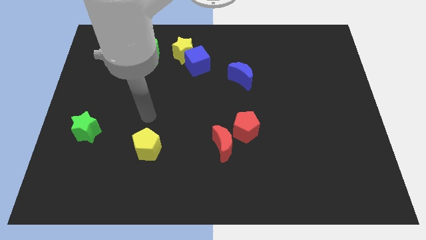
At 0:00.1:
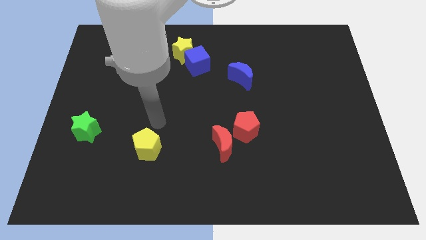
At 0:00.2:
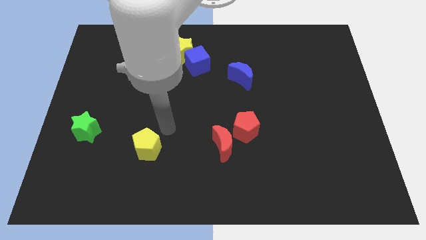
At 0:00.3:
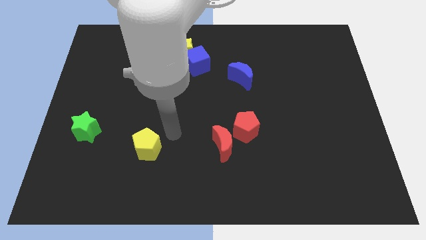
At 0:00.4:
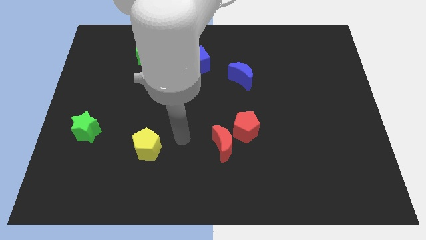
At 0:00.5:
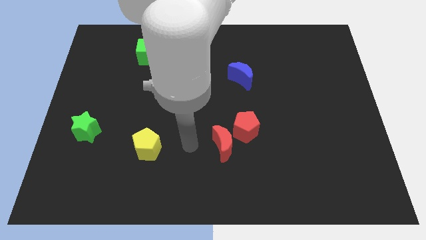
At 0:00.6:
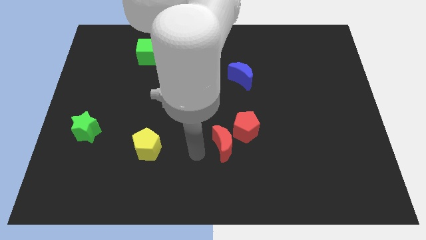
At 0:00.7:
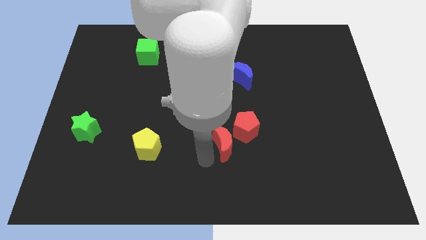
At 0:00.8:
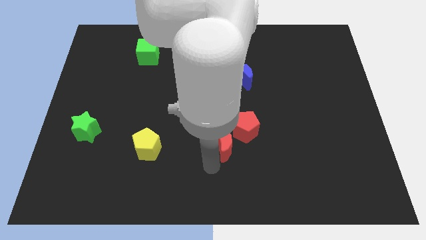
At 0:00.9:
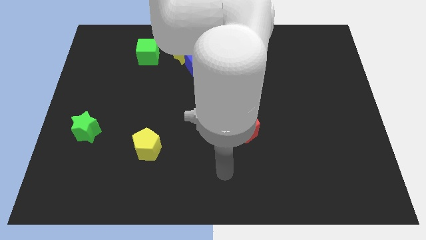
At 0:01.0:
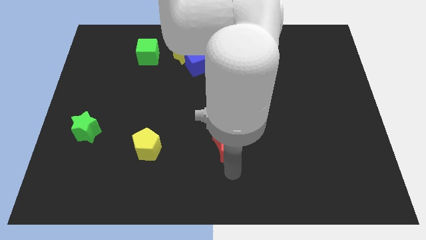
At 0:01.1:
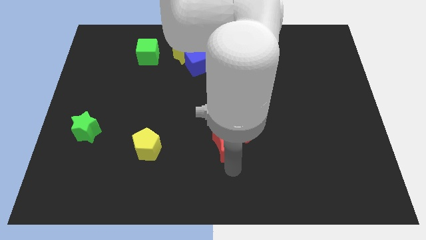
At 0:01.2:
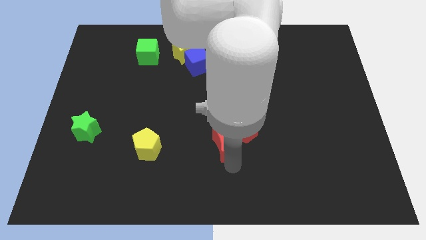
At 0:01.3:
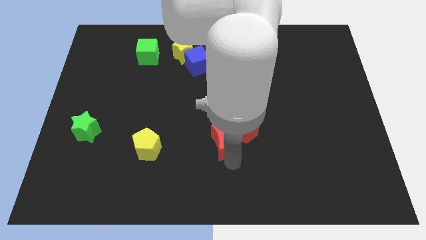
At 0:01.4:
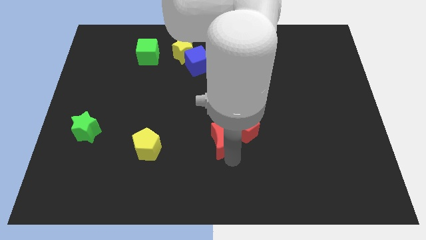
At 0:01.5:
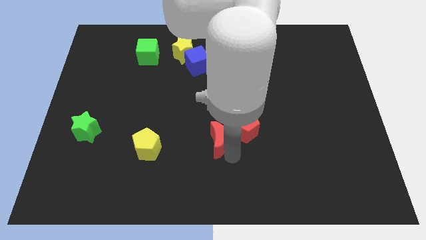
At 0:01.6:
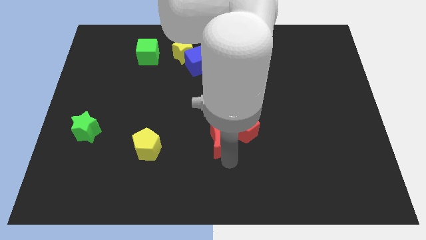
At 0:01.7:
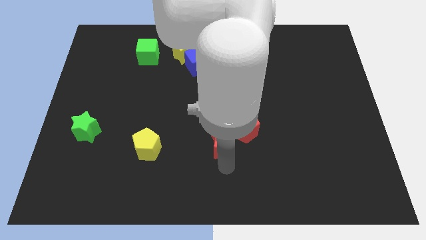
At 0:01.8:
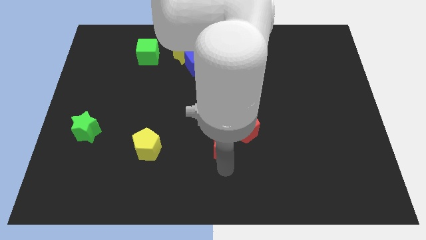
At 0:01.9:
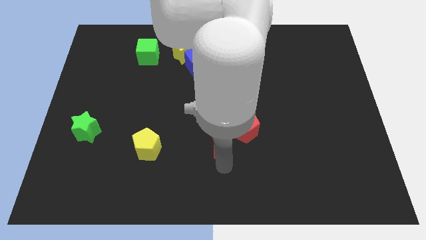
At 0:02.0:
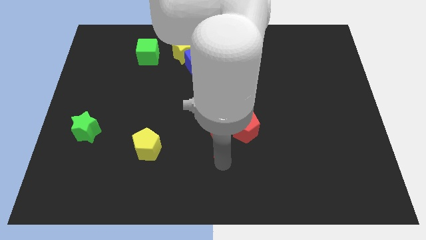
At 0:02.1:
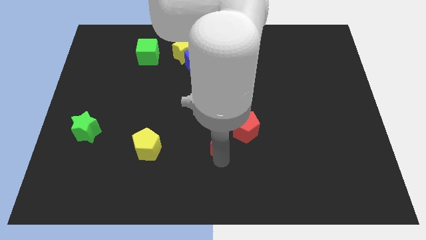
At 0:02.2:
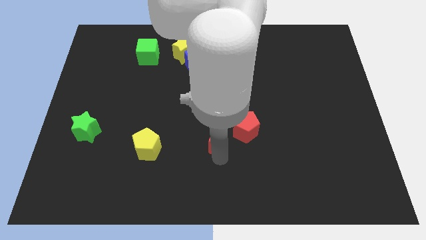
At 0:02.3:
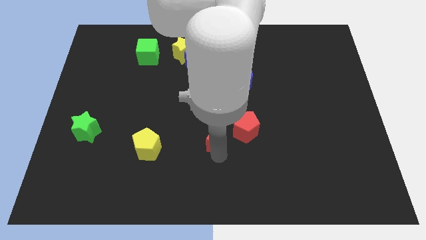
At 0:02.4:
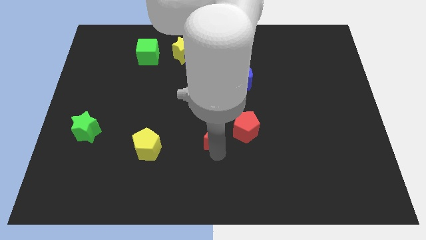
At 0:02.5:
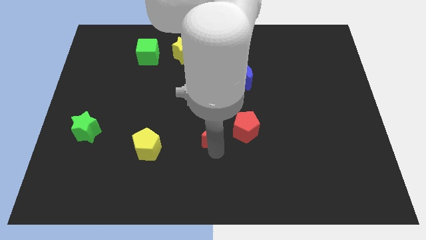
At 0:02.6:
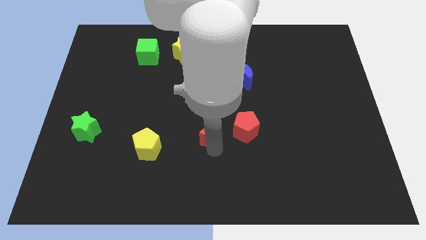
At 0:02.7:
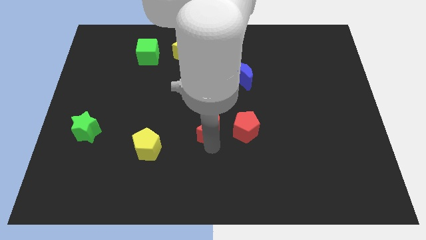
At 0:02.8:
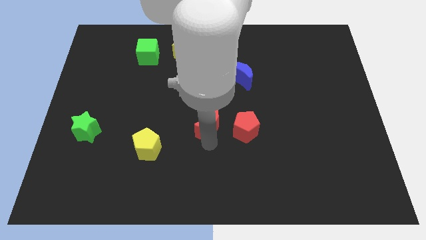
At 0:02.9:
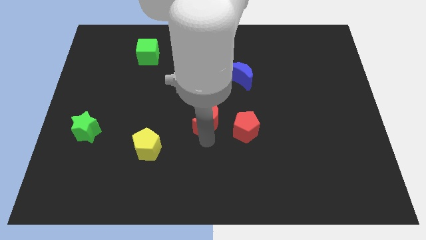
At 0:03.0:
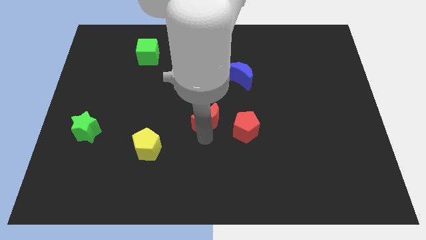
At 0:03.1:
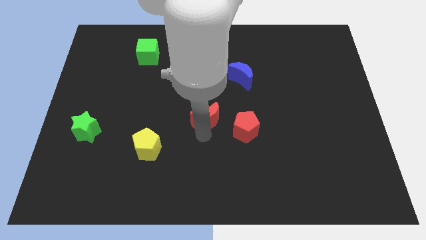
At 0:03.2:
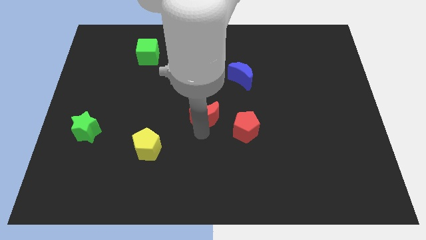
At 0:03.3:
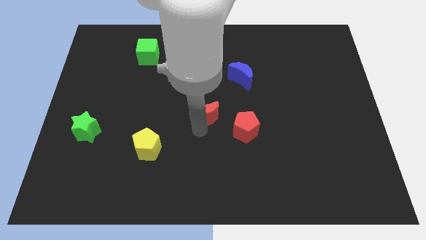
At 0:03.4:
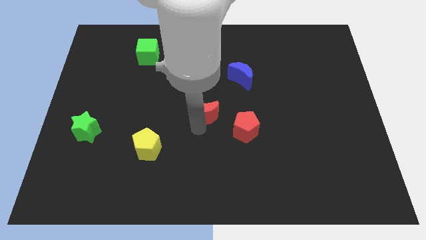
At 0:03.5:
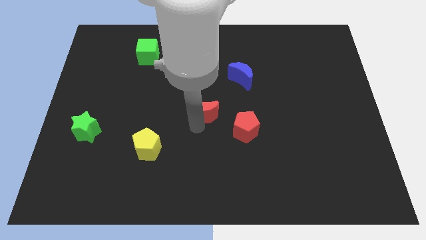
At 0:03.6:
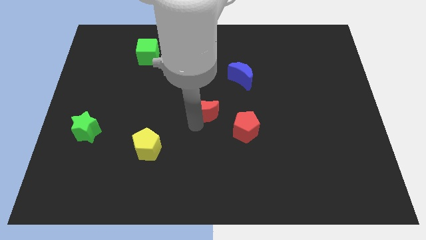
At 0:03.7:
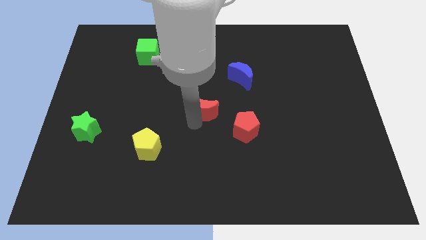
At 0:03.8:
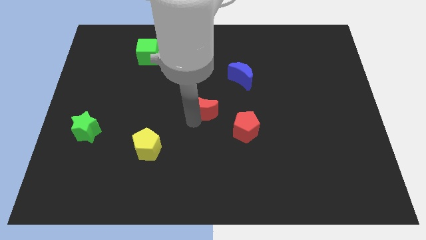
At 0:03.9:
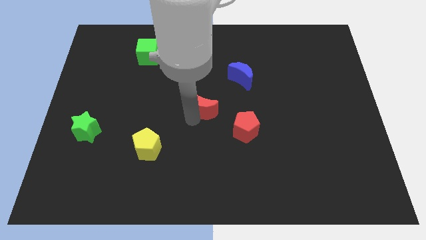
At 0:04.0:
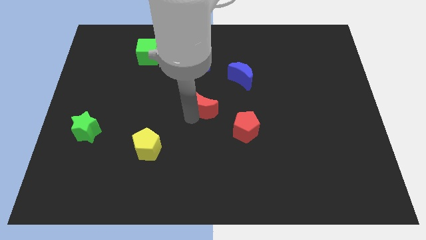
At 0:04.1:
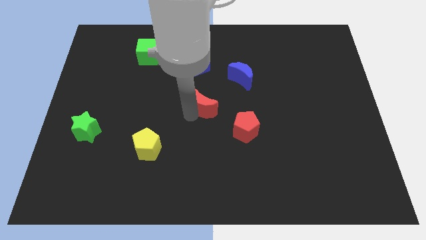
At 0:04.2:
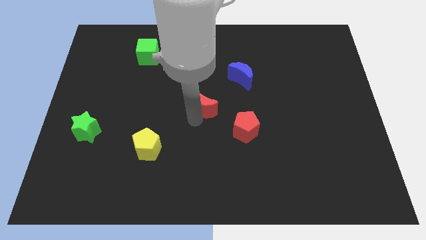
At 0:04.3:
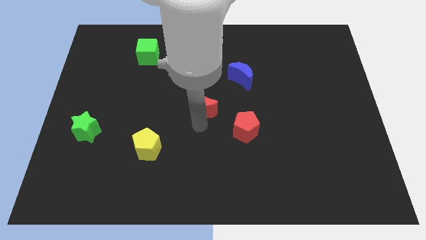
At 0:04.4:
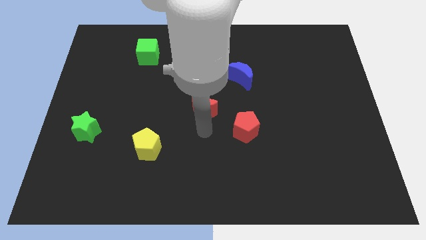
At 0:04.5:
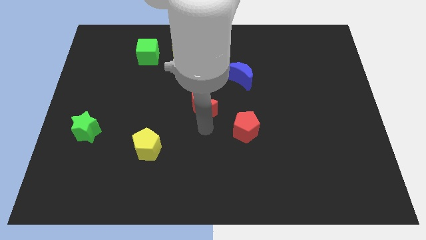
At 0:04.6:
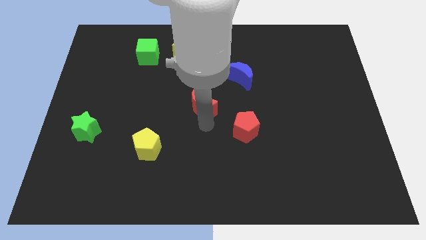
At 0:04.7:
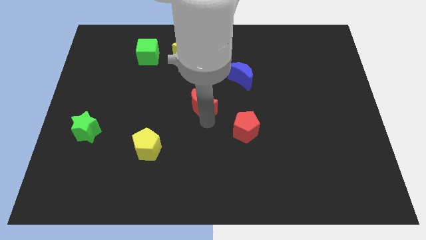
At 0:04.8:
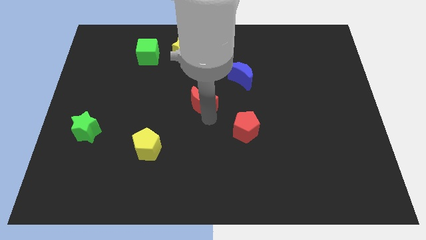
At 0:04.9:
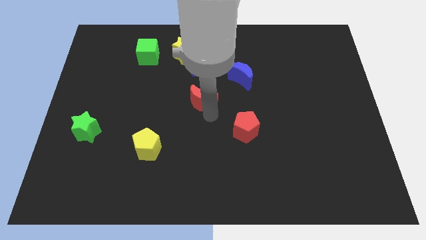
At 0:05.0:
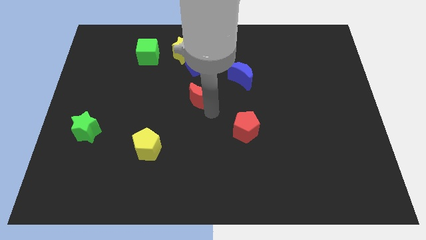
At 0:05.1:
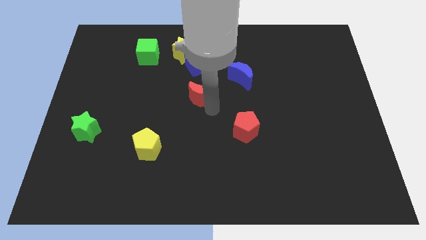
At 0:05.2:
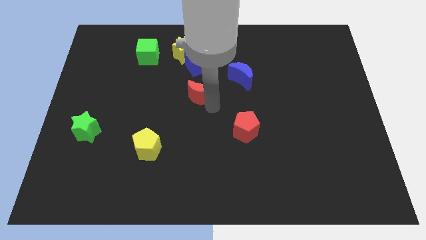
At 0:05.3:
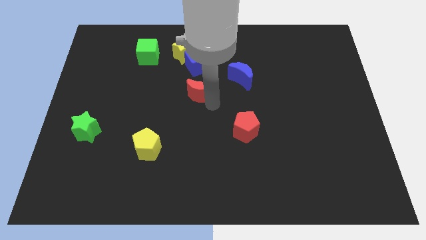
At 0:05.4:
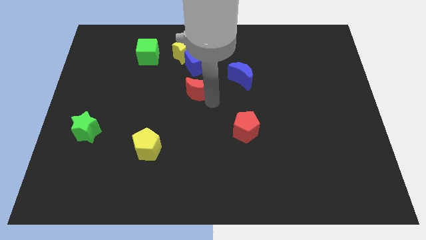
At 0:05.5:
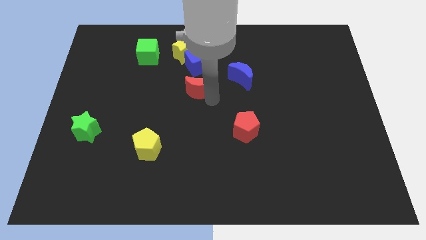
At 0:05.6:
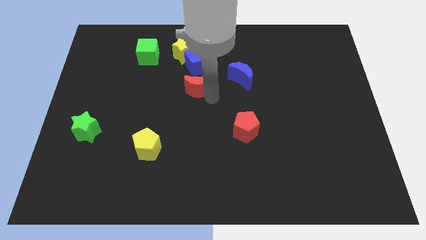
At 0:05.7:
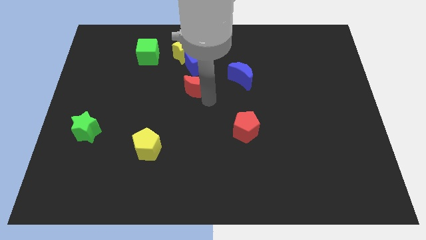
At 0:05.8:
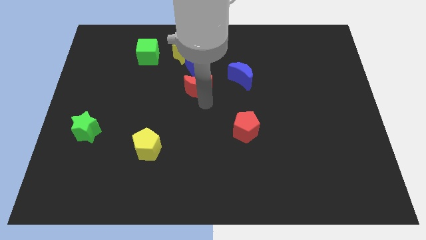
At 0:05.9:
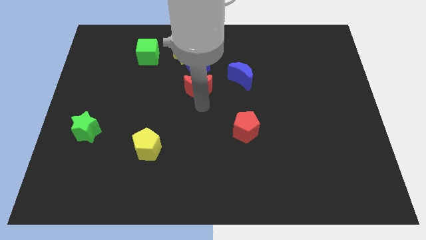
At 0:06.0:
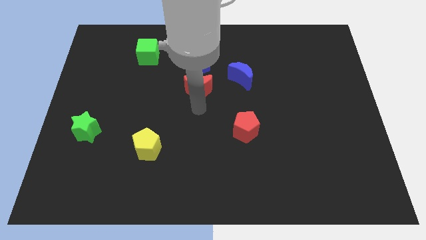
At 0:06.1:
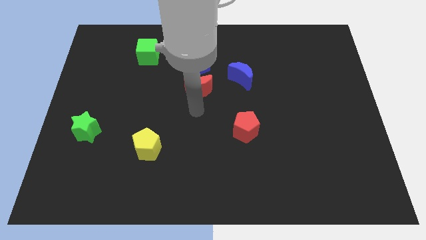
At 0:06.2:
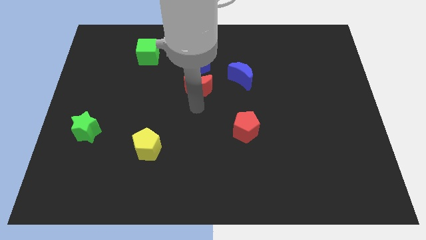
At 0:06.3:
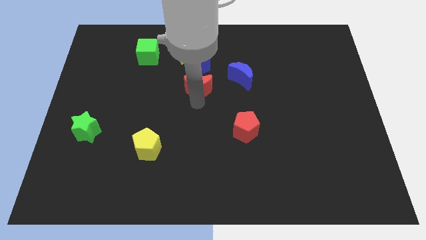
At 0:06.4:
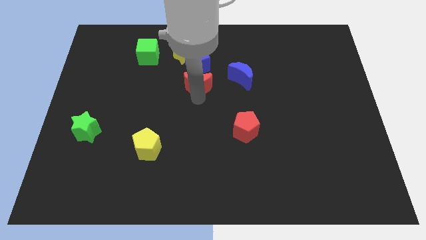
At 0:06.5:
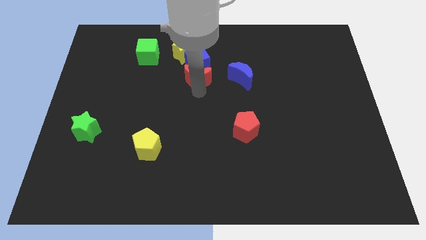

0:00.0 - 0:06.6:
put the red moon towards the blue cube

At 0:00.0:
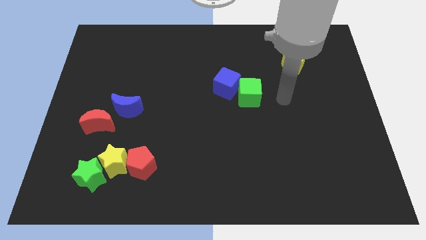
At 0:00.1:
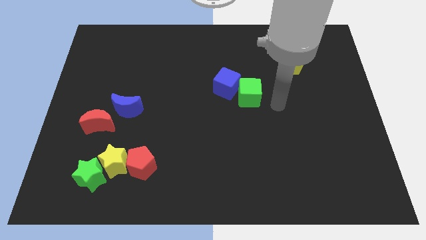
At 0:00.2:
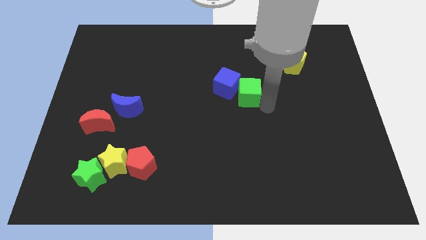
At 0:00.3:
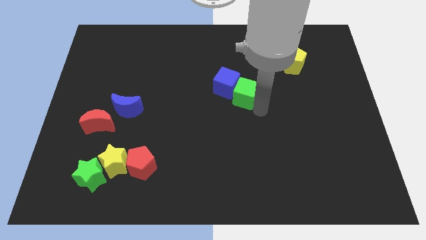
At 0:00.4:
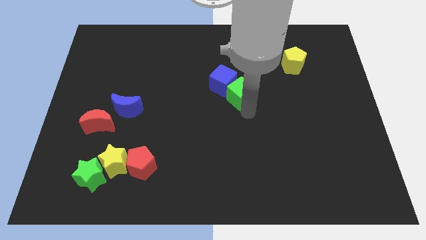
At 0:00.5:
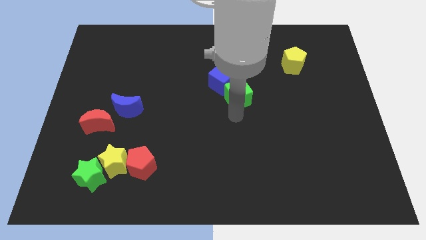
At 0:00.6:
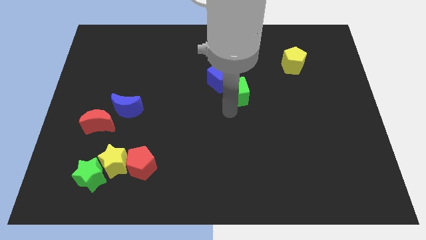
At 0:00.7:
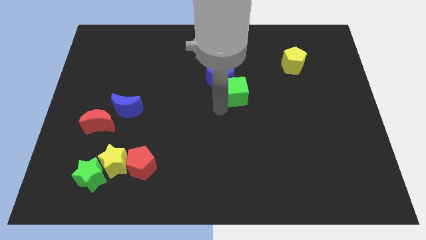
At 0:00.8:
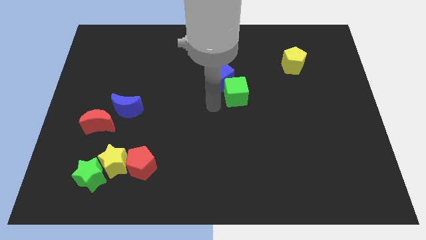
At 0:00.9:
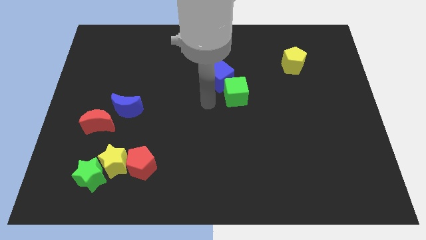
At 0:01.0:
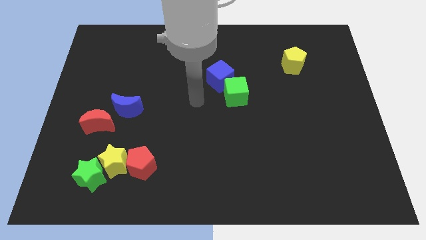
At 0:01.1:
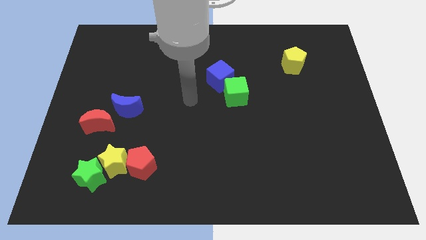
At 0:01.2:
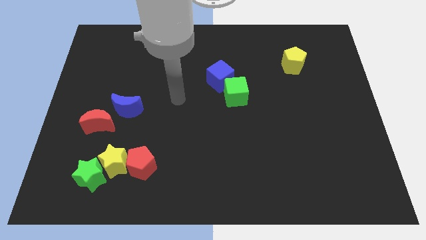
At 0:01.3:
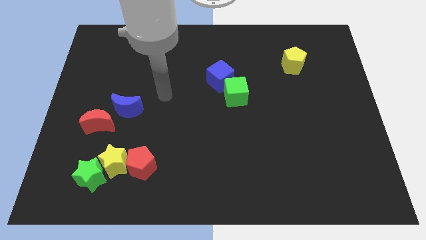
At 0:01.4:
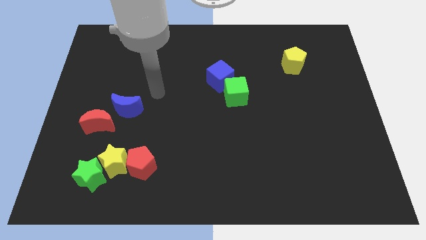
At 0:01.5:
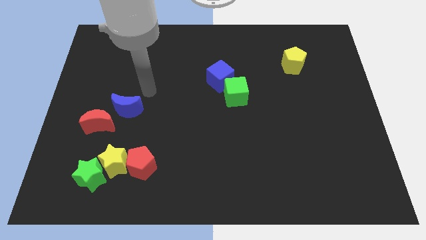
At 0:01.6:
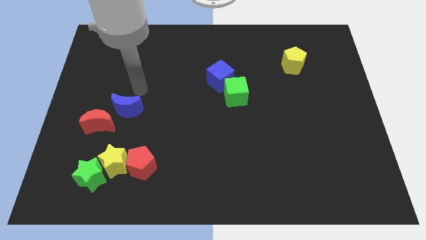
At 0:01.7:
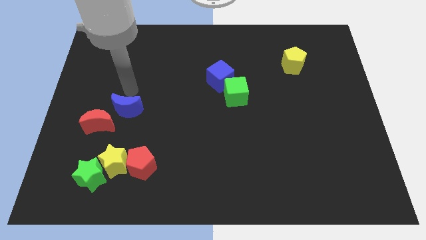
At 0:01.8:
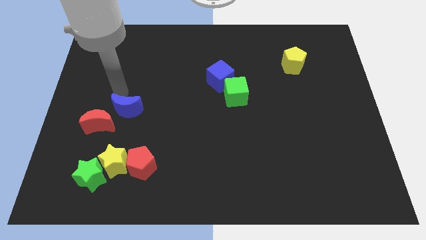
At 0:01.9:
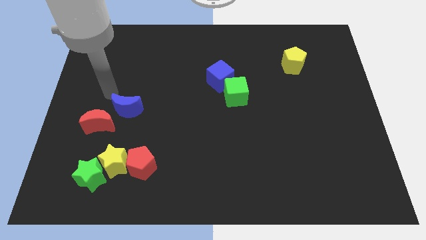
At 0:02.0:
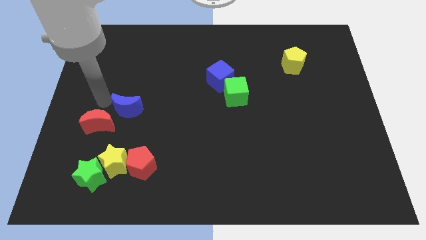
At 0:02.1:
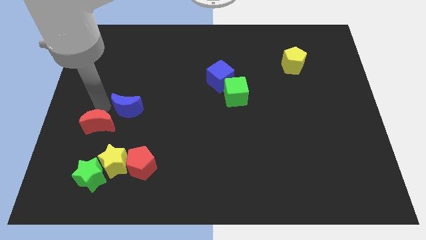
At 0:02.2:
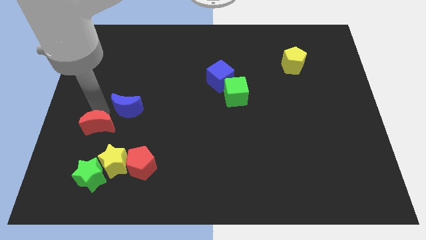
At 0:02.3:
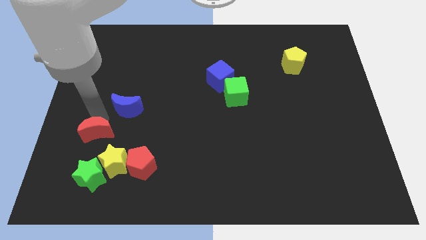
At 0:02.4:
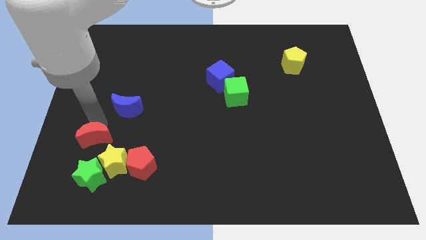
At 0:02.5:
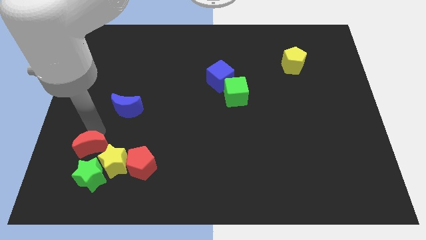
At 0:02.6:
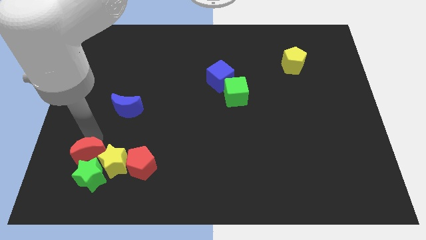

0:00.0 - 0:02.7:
move the red moon towards the green star
